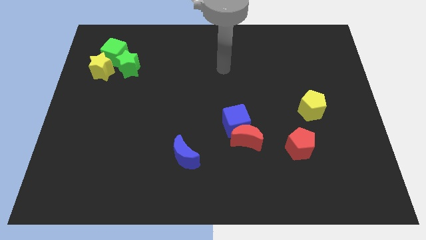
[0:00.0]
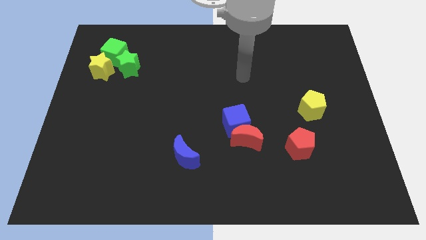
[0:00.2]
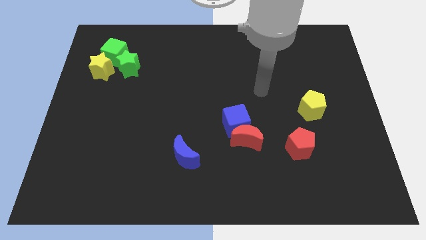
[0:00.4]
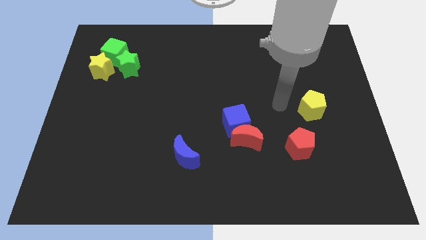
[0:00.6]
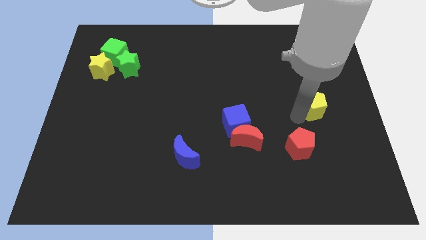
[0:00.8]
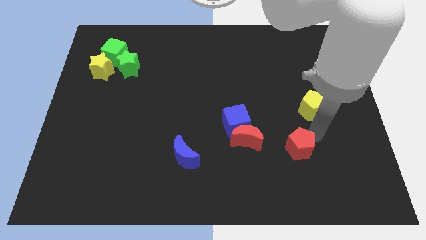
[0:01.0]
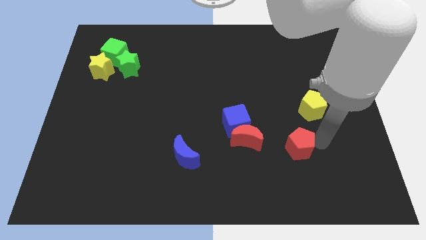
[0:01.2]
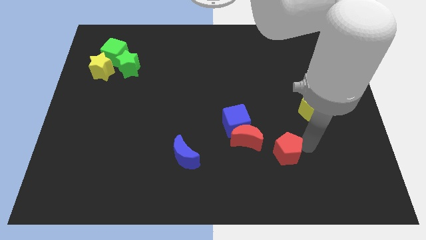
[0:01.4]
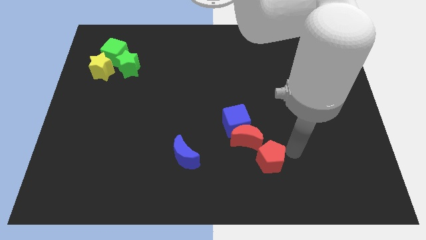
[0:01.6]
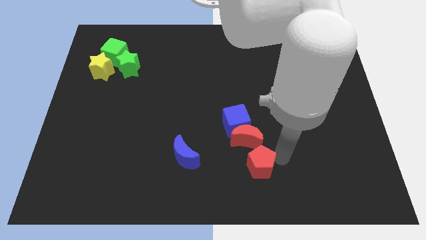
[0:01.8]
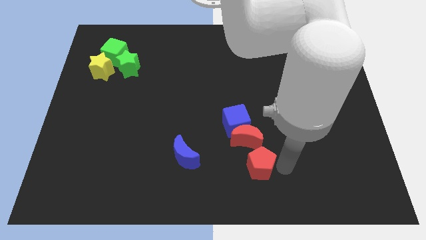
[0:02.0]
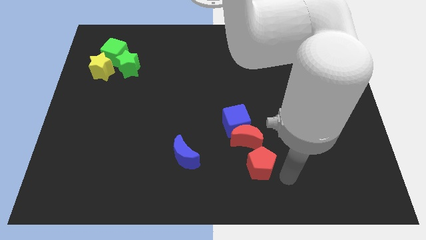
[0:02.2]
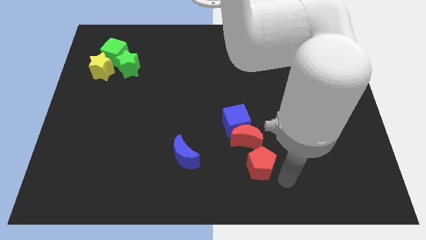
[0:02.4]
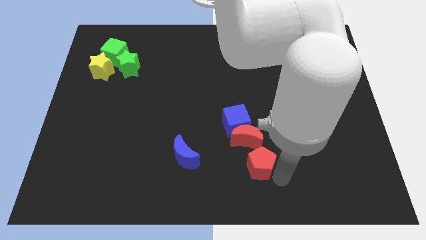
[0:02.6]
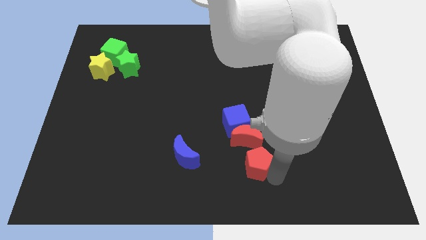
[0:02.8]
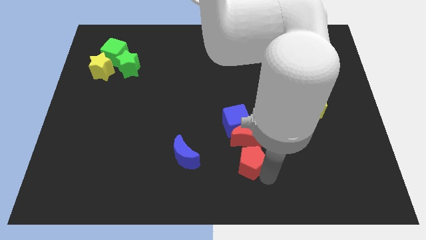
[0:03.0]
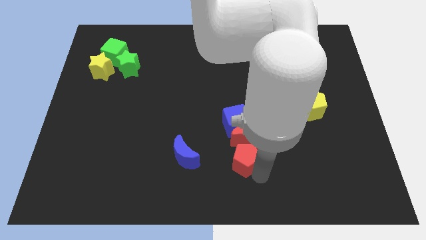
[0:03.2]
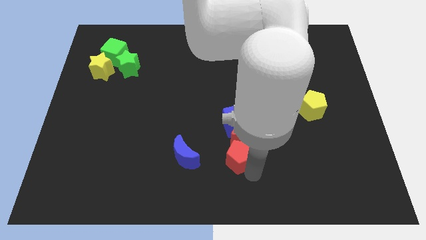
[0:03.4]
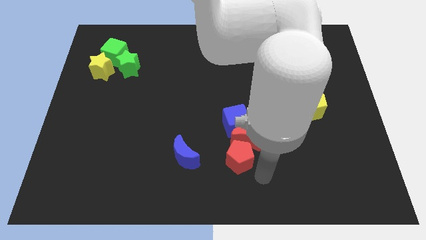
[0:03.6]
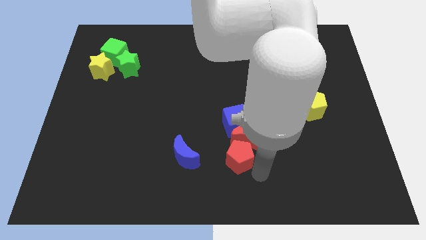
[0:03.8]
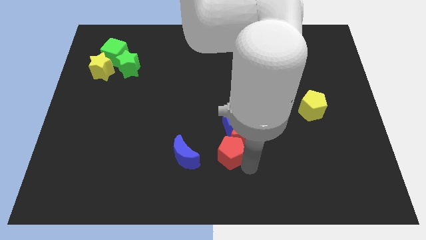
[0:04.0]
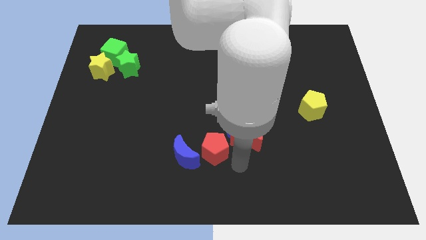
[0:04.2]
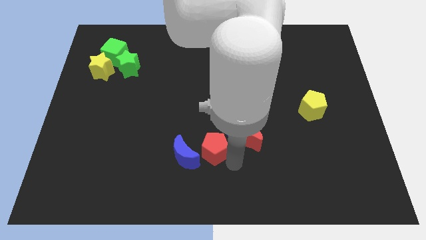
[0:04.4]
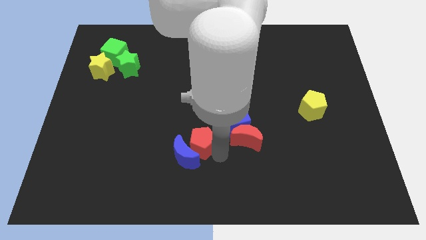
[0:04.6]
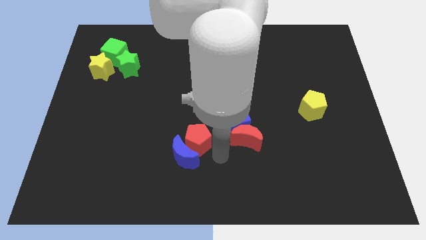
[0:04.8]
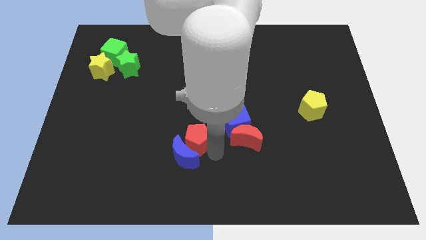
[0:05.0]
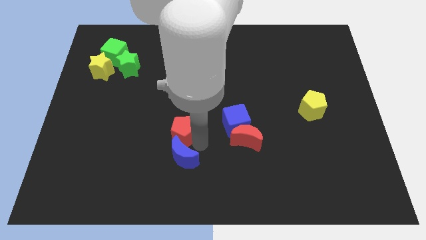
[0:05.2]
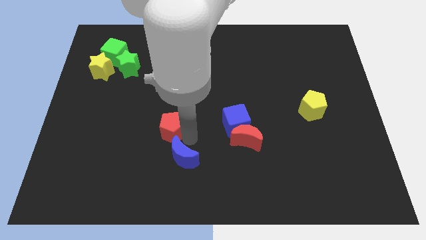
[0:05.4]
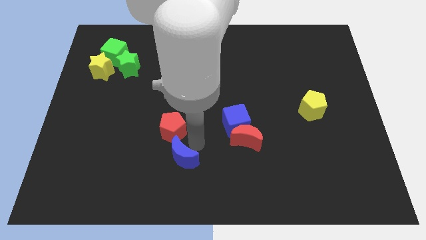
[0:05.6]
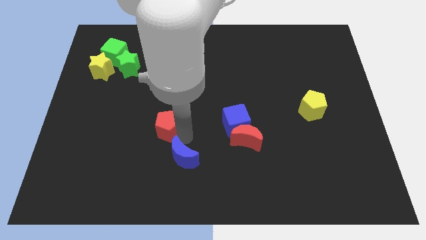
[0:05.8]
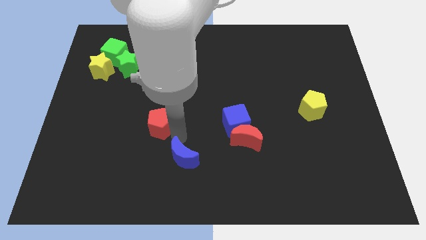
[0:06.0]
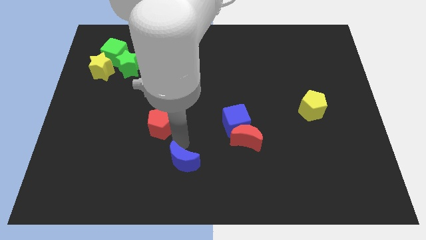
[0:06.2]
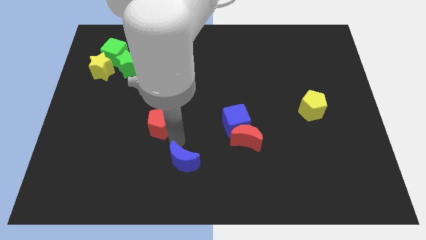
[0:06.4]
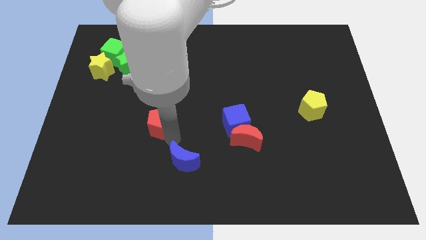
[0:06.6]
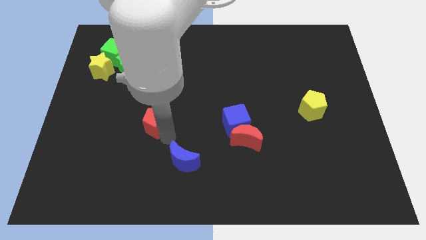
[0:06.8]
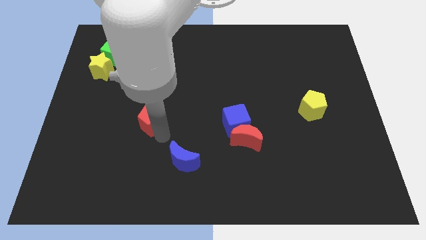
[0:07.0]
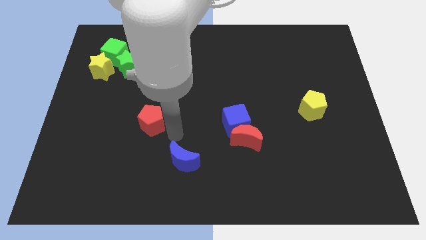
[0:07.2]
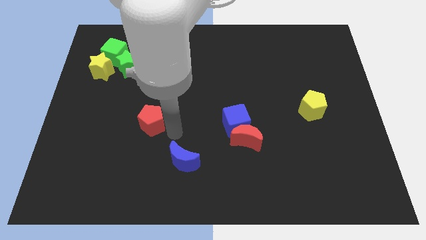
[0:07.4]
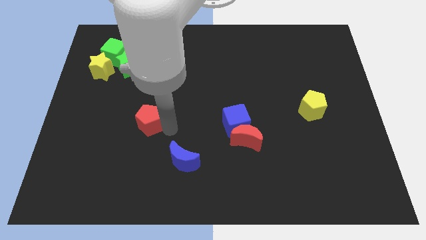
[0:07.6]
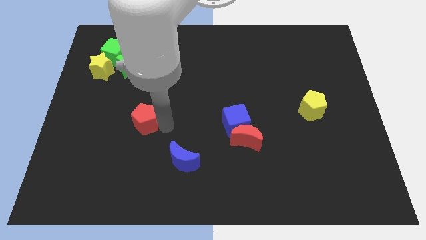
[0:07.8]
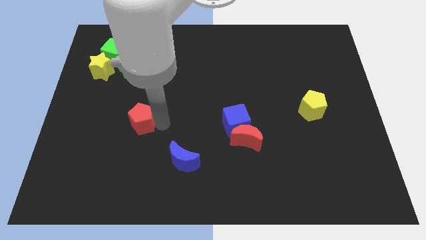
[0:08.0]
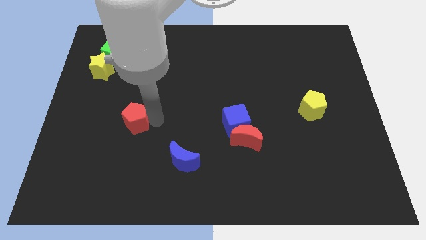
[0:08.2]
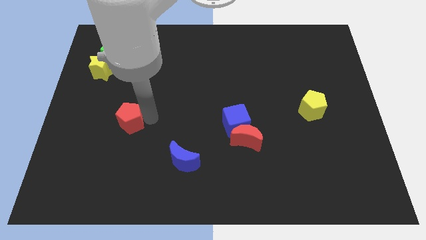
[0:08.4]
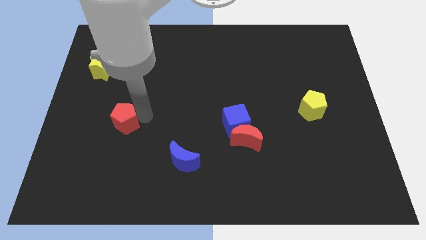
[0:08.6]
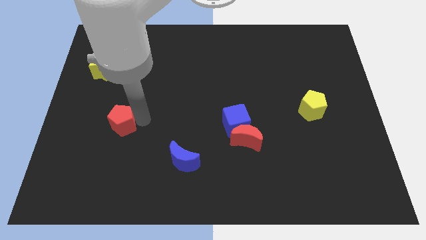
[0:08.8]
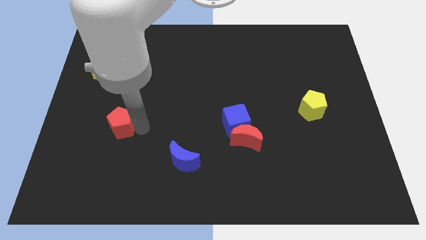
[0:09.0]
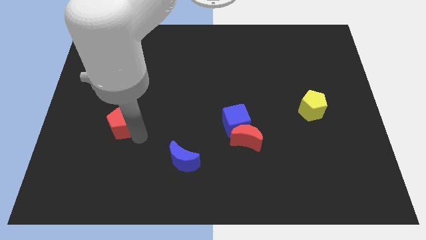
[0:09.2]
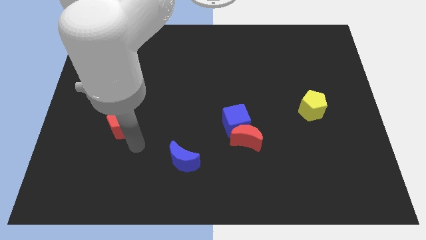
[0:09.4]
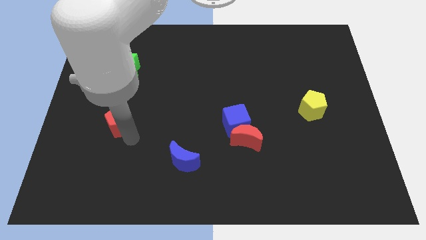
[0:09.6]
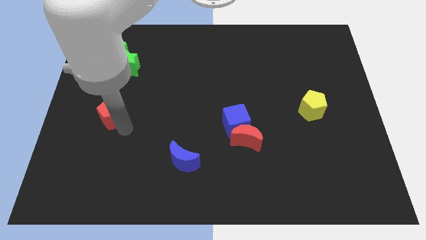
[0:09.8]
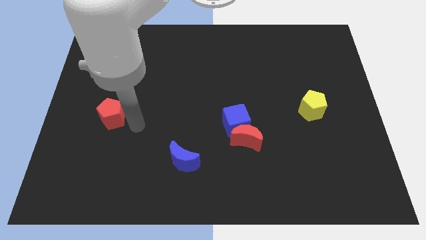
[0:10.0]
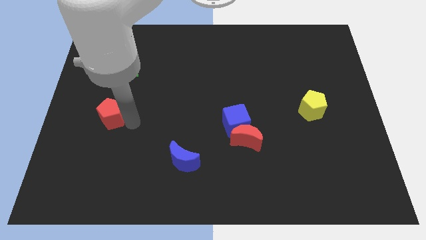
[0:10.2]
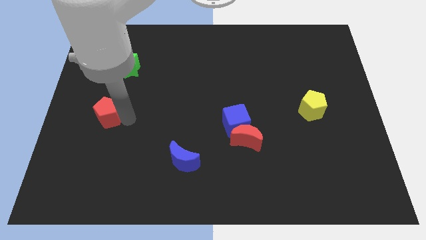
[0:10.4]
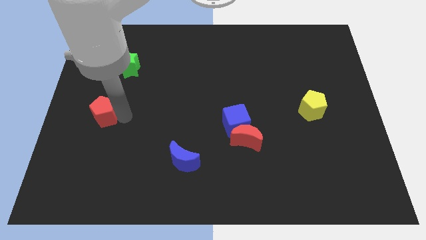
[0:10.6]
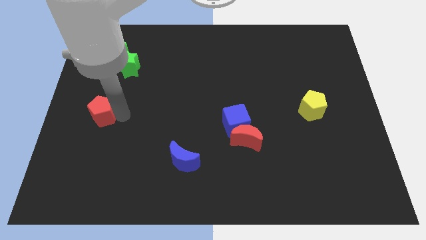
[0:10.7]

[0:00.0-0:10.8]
move the red pentagon to the left side

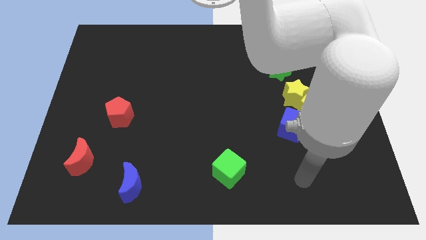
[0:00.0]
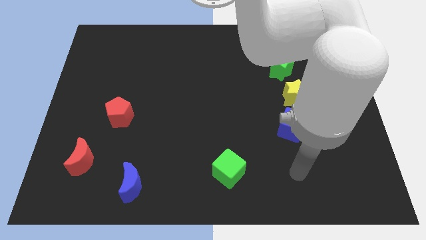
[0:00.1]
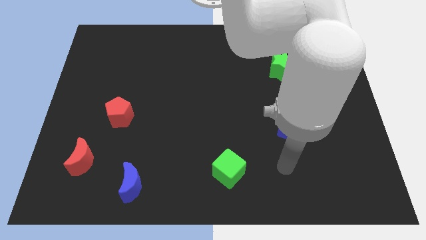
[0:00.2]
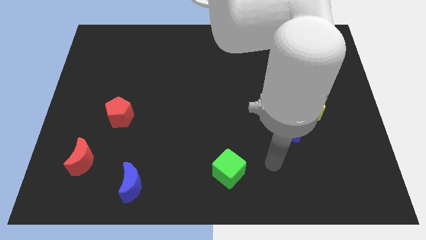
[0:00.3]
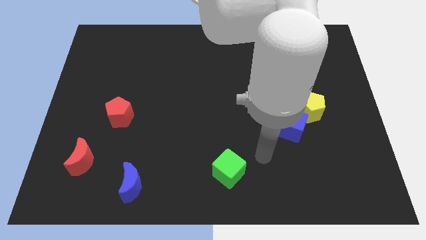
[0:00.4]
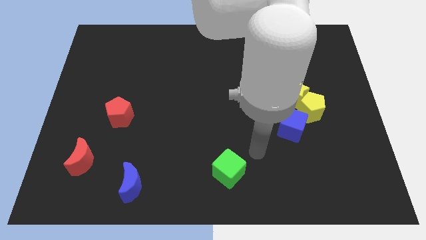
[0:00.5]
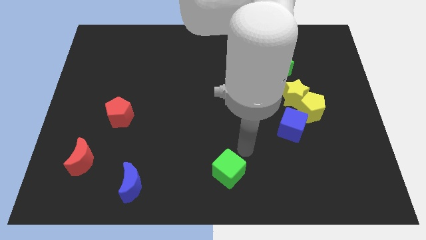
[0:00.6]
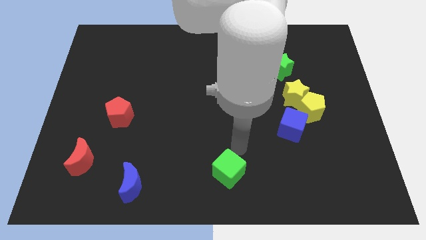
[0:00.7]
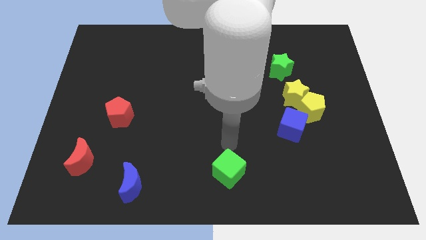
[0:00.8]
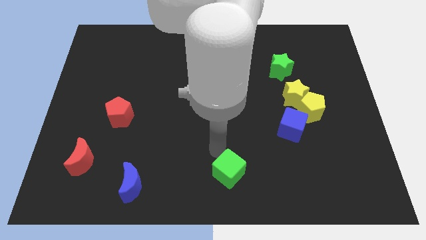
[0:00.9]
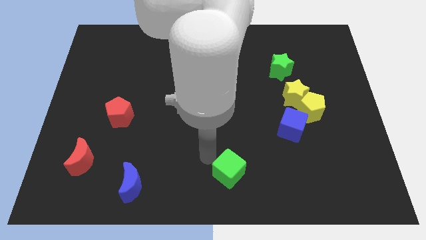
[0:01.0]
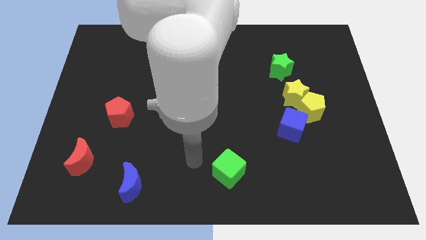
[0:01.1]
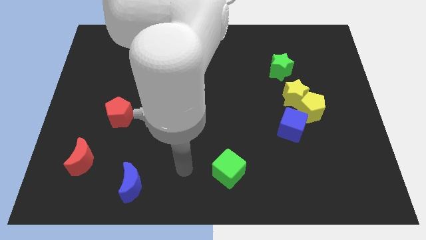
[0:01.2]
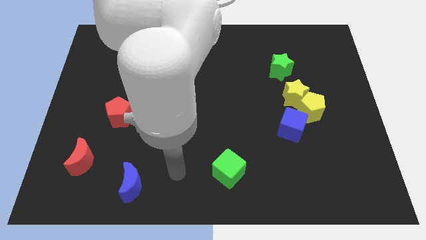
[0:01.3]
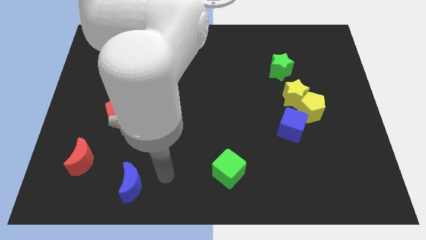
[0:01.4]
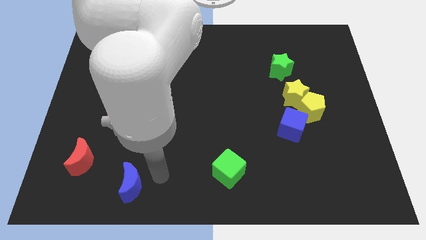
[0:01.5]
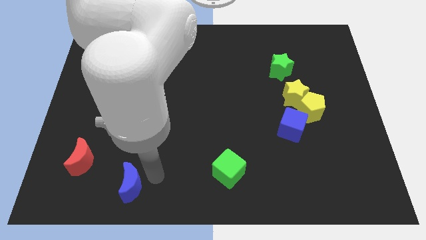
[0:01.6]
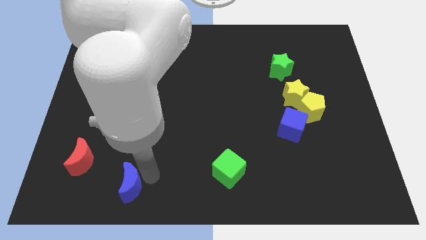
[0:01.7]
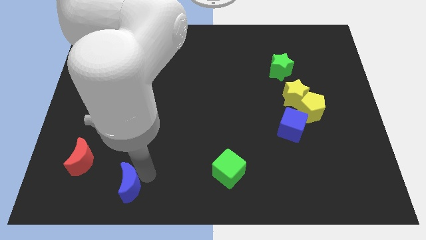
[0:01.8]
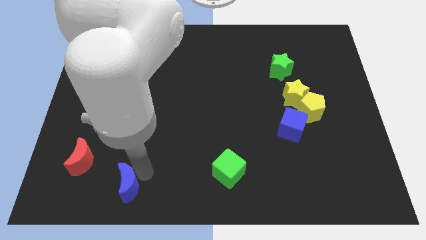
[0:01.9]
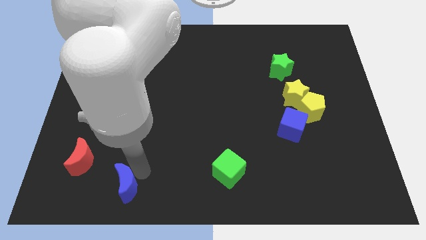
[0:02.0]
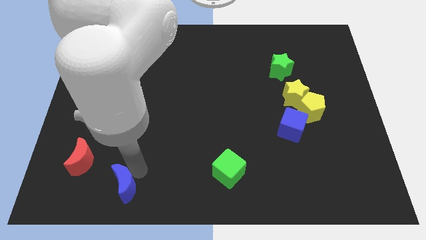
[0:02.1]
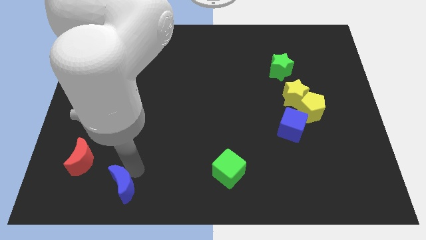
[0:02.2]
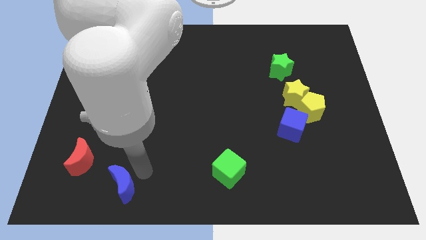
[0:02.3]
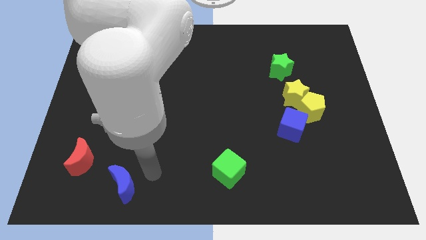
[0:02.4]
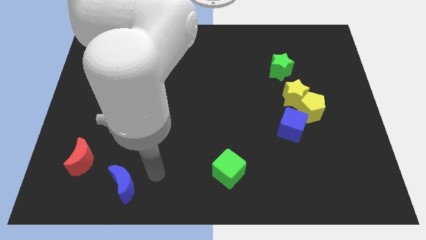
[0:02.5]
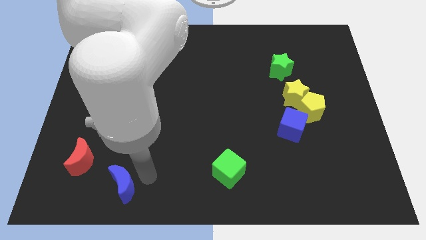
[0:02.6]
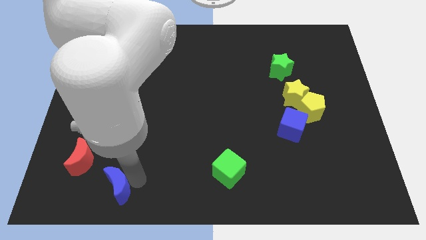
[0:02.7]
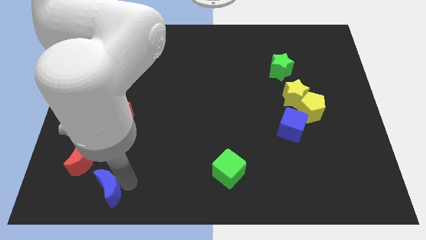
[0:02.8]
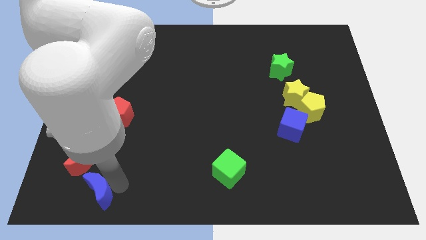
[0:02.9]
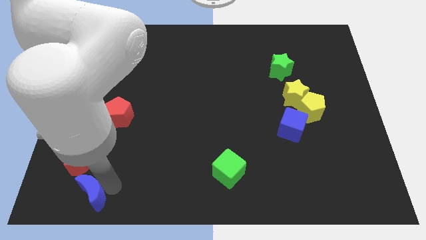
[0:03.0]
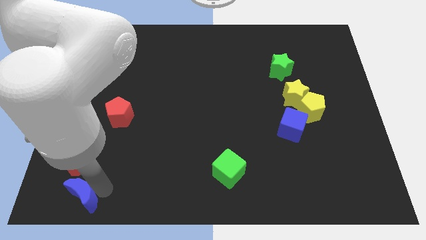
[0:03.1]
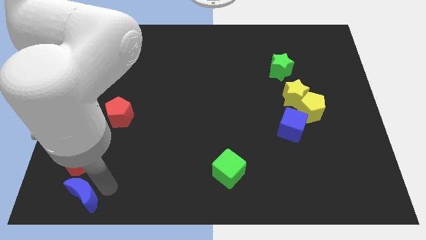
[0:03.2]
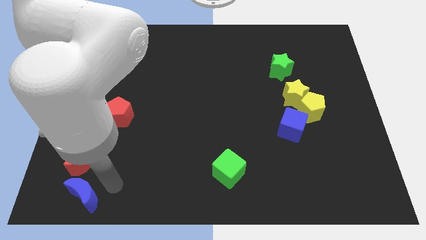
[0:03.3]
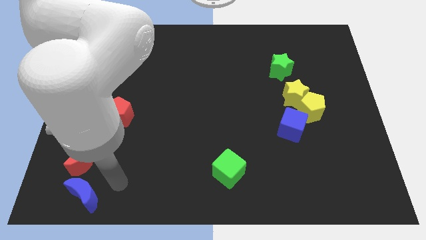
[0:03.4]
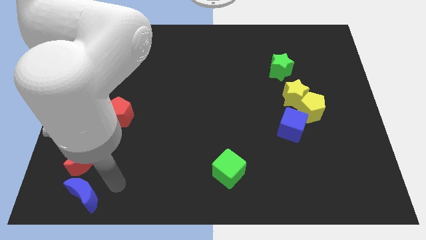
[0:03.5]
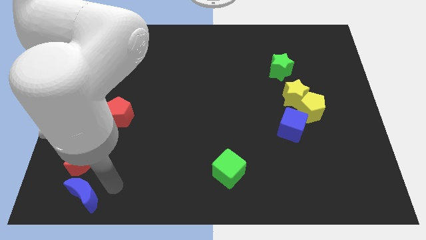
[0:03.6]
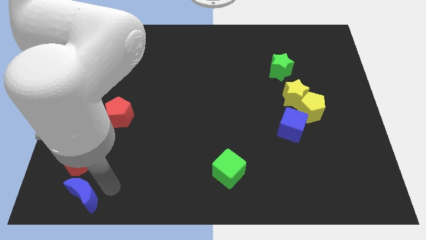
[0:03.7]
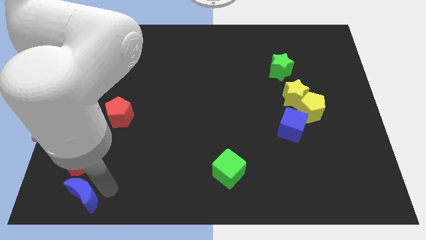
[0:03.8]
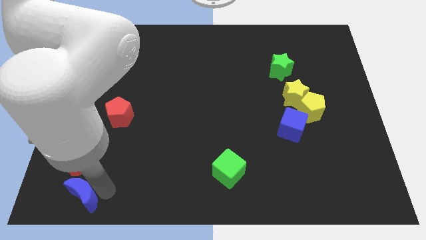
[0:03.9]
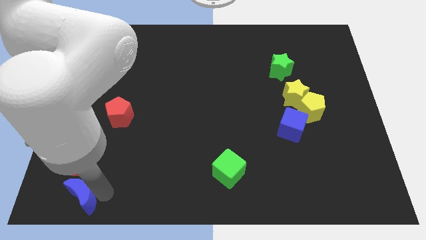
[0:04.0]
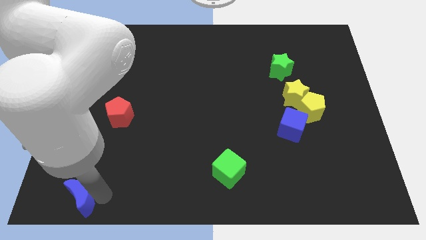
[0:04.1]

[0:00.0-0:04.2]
slide the blue moon to the bottom left
